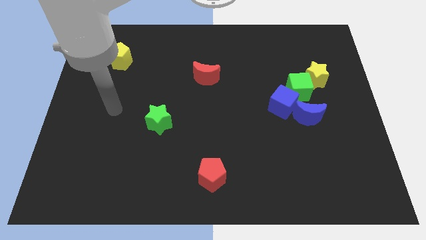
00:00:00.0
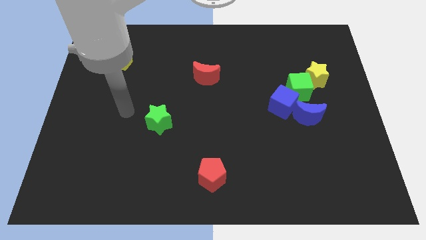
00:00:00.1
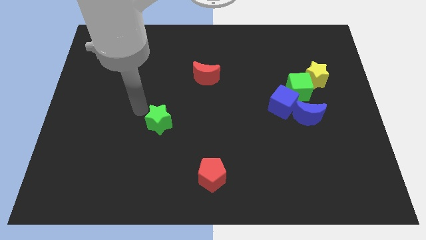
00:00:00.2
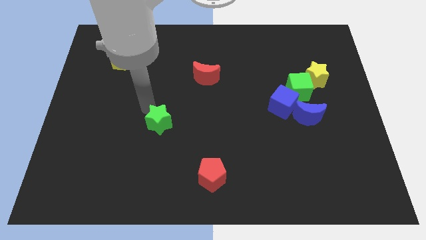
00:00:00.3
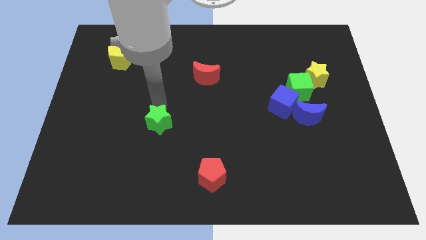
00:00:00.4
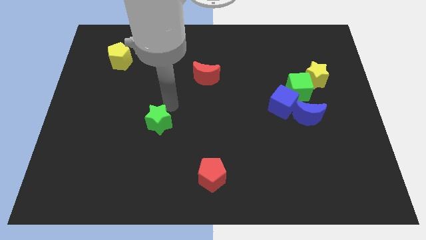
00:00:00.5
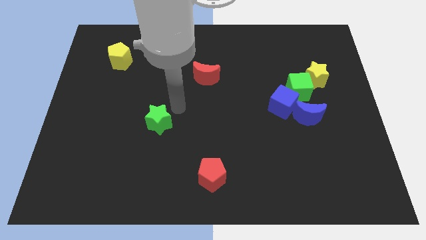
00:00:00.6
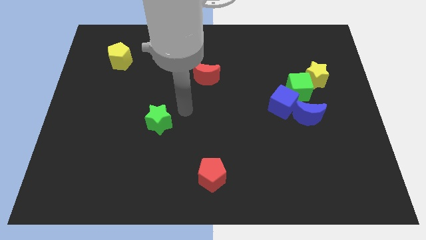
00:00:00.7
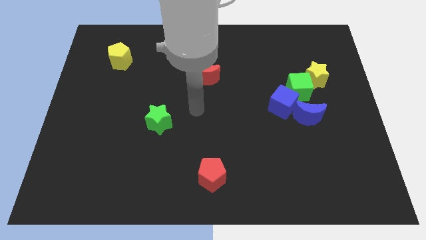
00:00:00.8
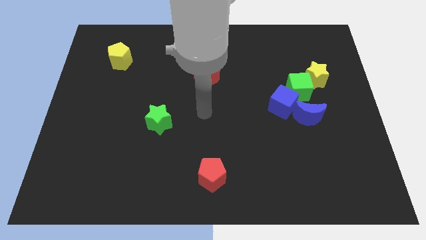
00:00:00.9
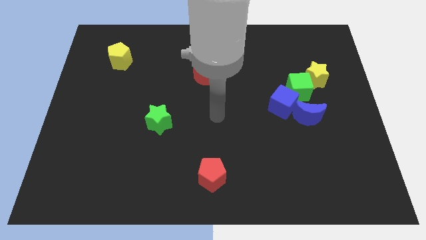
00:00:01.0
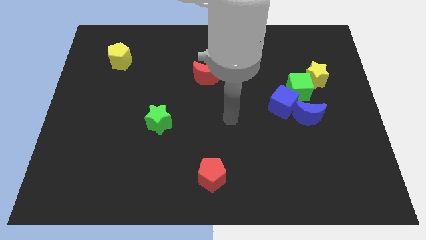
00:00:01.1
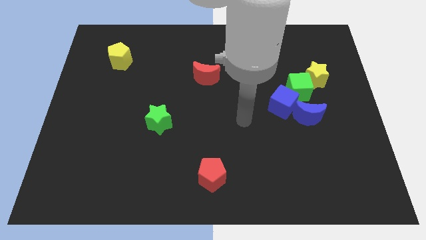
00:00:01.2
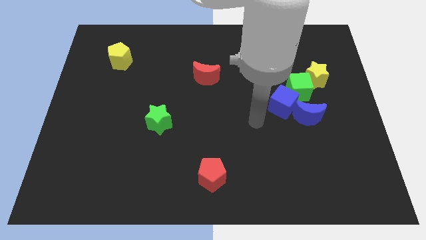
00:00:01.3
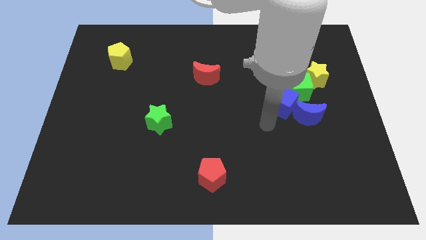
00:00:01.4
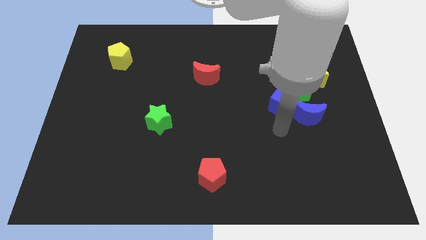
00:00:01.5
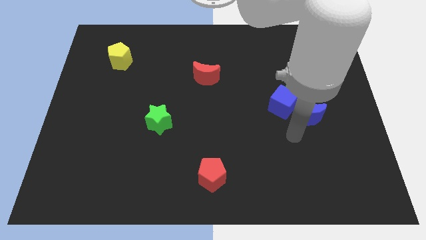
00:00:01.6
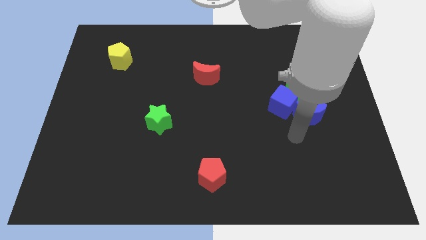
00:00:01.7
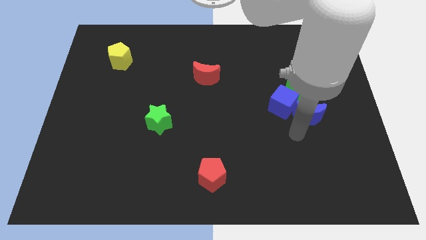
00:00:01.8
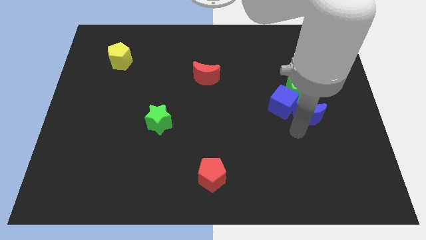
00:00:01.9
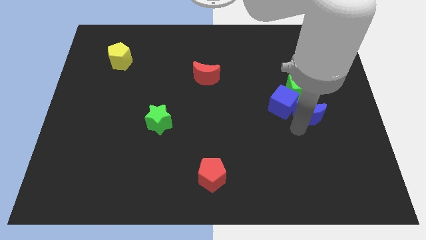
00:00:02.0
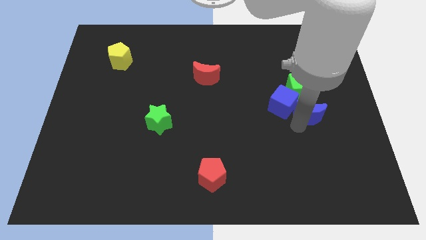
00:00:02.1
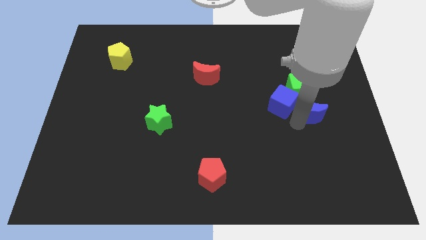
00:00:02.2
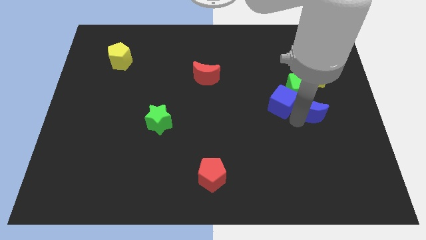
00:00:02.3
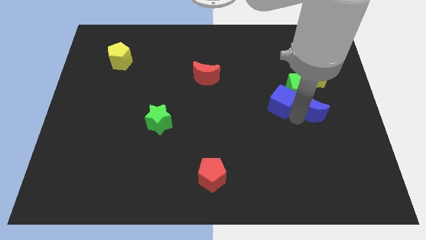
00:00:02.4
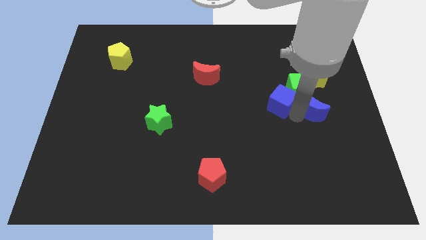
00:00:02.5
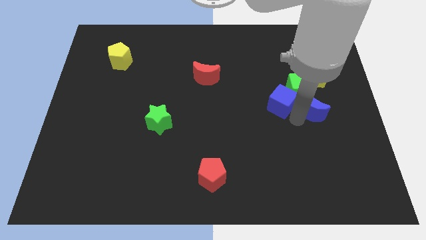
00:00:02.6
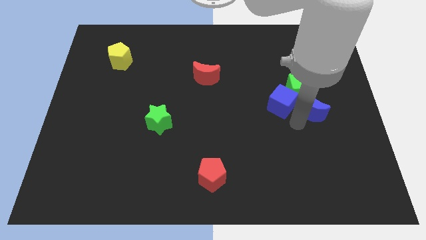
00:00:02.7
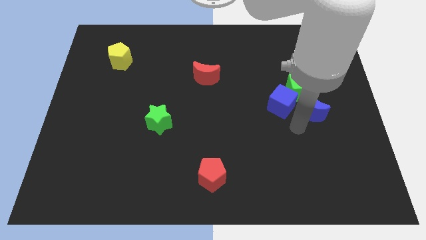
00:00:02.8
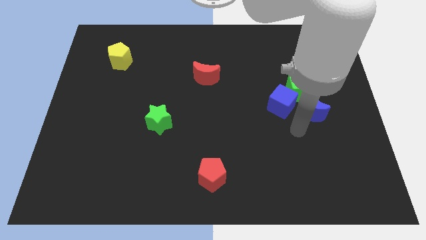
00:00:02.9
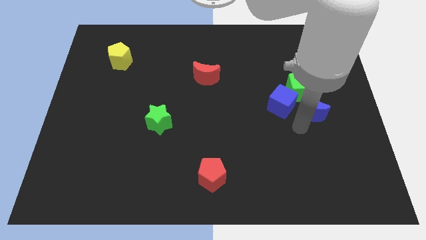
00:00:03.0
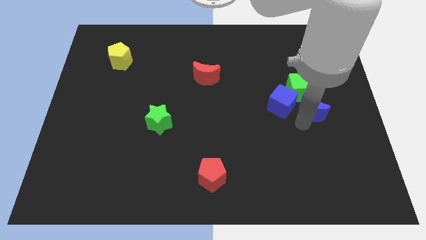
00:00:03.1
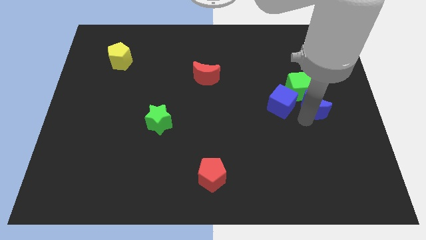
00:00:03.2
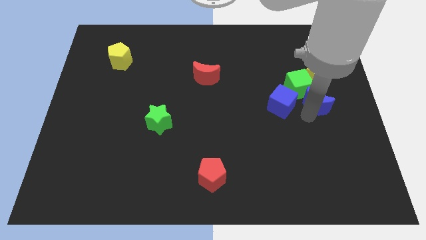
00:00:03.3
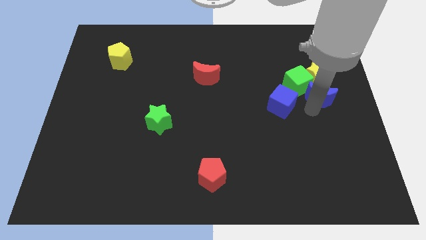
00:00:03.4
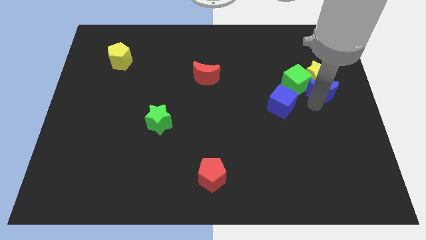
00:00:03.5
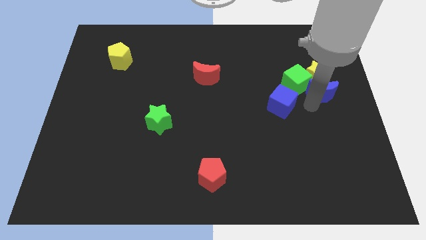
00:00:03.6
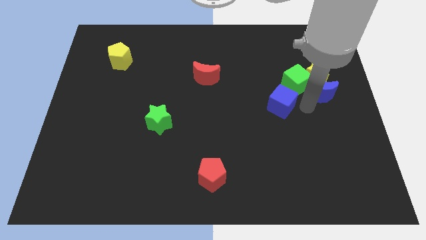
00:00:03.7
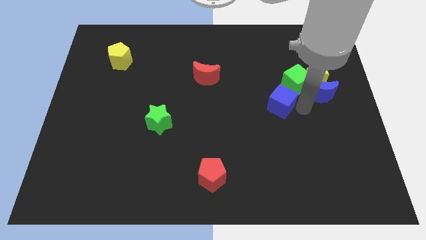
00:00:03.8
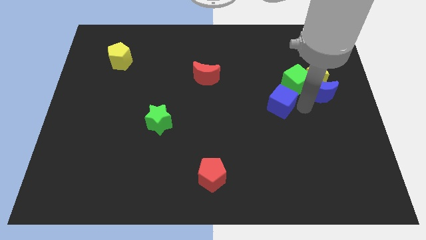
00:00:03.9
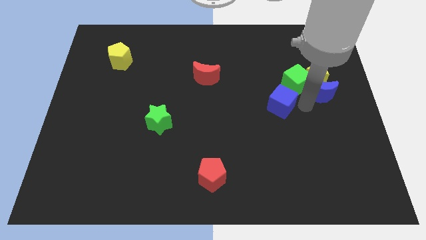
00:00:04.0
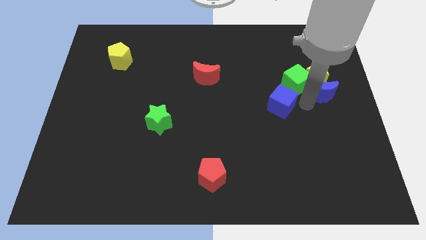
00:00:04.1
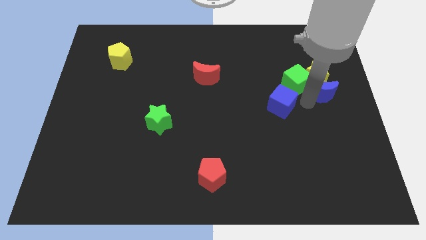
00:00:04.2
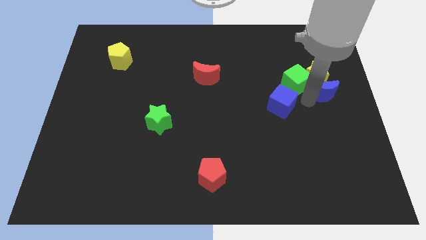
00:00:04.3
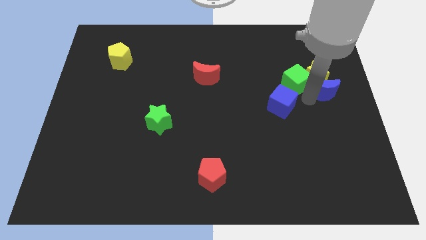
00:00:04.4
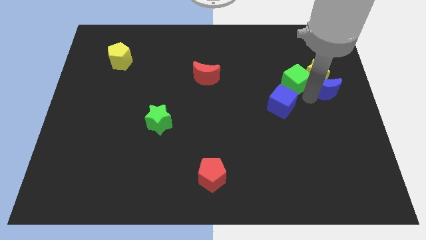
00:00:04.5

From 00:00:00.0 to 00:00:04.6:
move the blue moon upwards somewhat

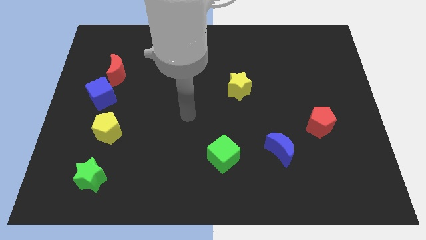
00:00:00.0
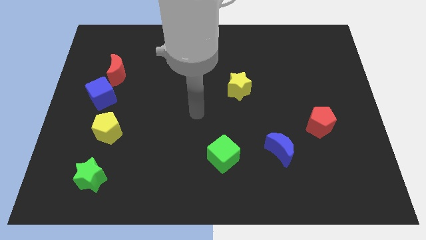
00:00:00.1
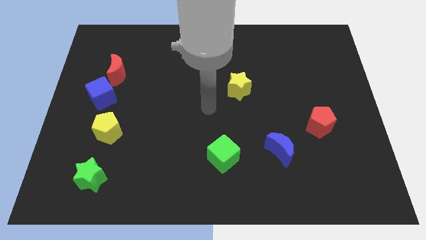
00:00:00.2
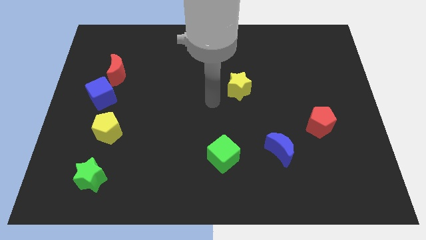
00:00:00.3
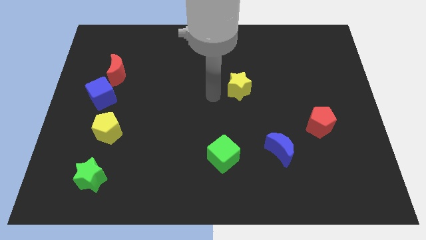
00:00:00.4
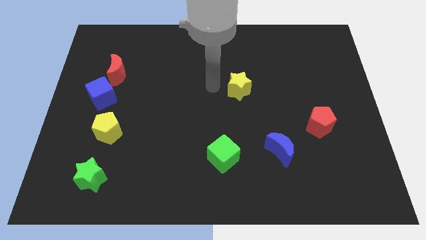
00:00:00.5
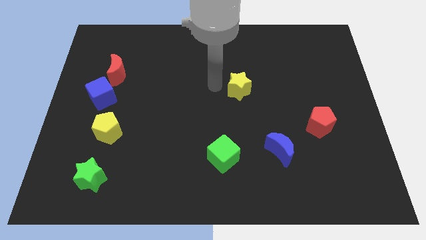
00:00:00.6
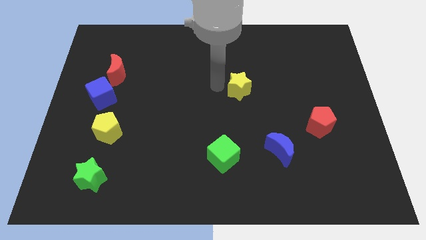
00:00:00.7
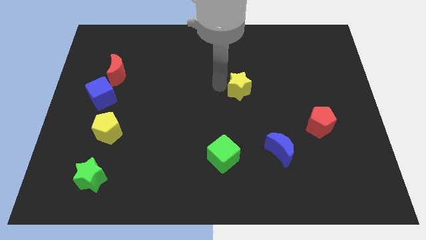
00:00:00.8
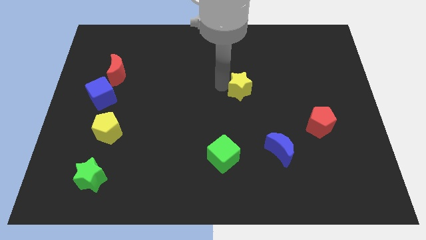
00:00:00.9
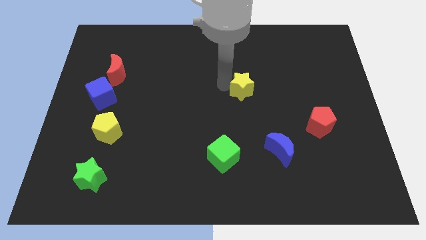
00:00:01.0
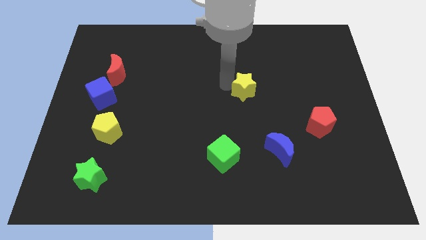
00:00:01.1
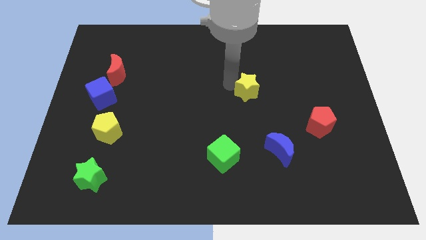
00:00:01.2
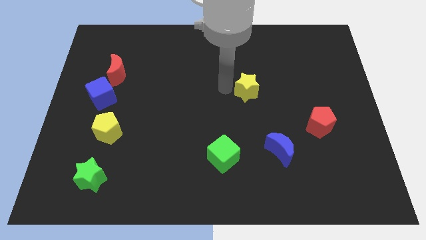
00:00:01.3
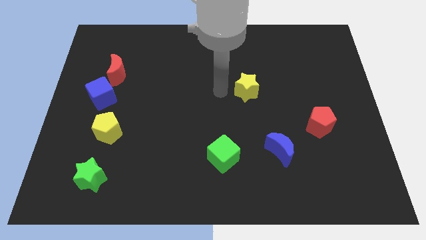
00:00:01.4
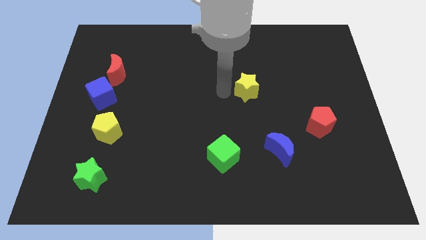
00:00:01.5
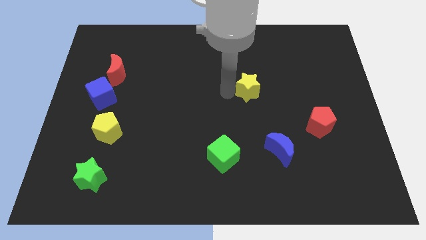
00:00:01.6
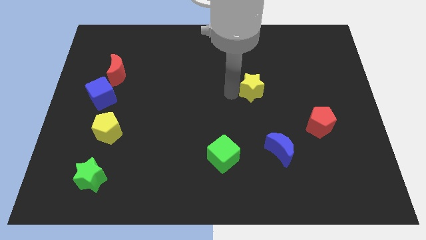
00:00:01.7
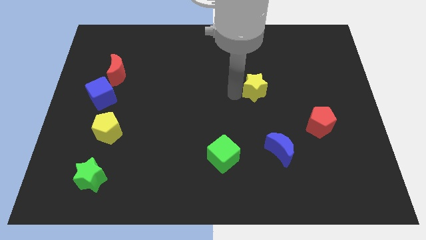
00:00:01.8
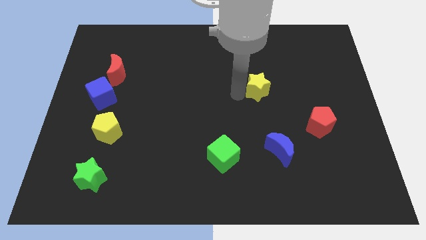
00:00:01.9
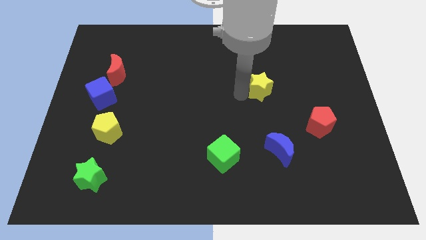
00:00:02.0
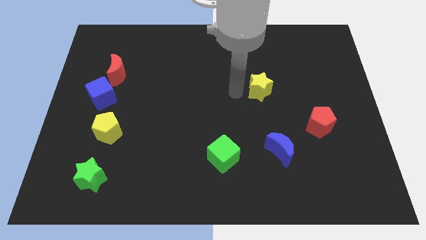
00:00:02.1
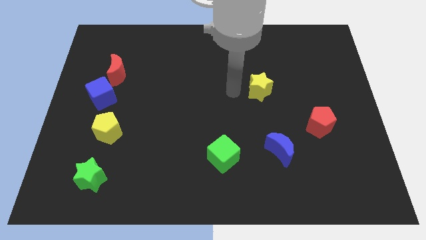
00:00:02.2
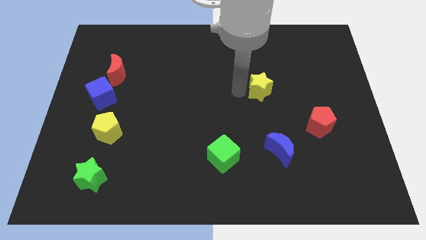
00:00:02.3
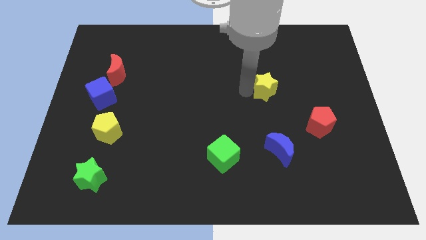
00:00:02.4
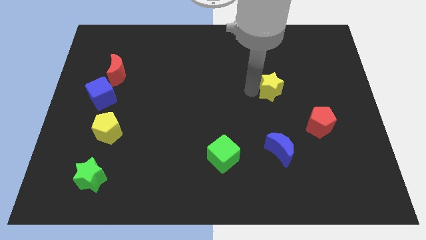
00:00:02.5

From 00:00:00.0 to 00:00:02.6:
move the yellow star a bit right

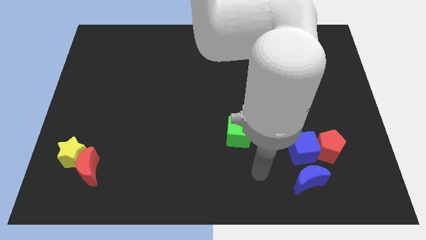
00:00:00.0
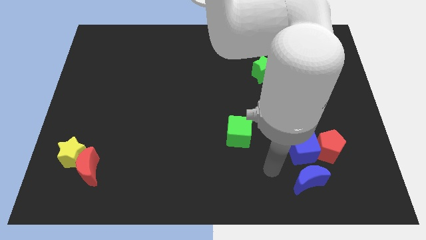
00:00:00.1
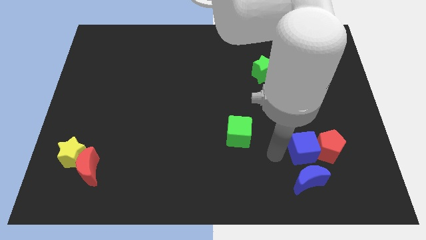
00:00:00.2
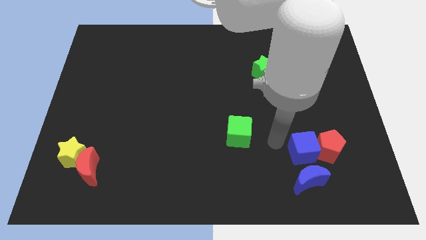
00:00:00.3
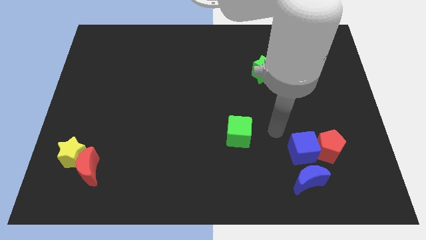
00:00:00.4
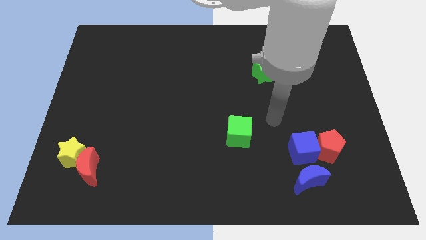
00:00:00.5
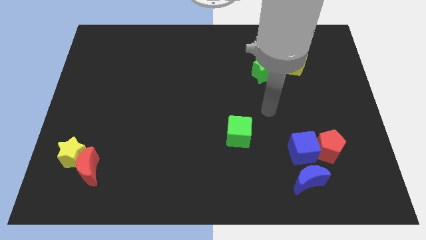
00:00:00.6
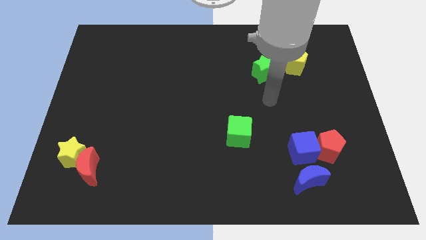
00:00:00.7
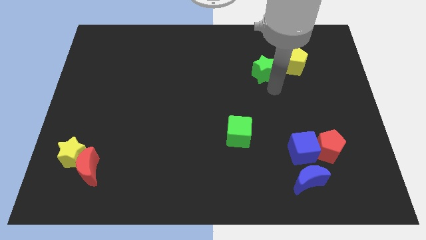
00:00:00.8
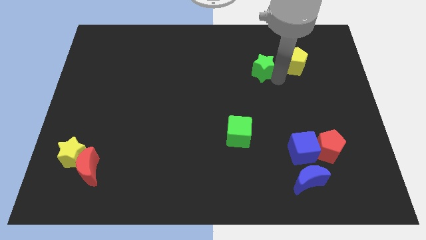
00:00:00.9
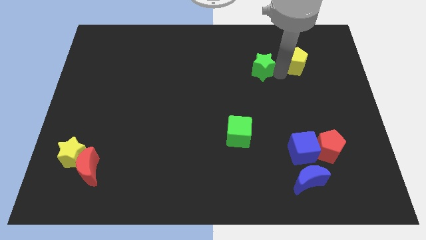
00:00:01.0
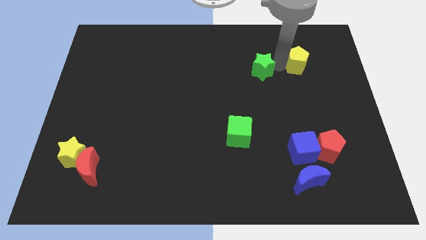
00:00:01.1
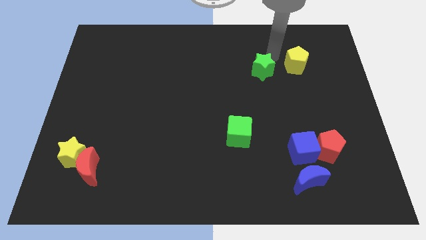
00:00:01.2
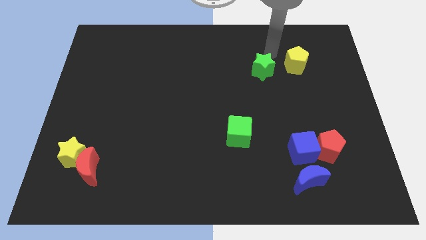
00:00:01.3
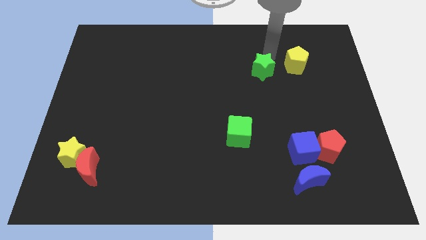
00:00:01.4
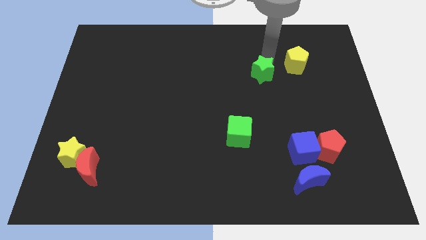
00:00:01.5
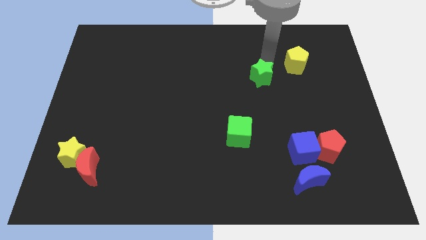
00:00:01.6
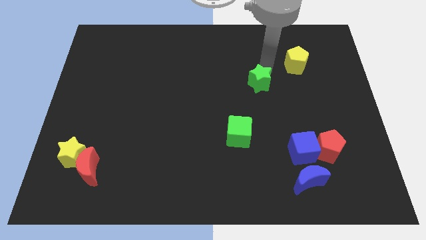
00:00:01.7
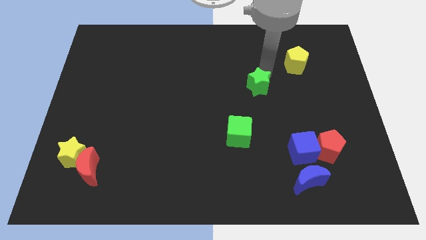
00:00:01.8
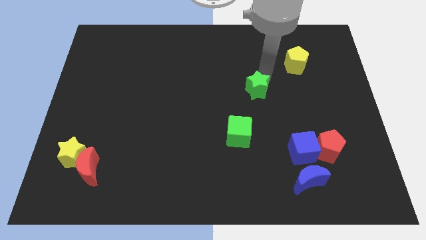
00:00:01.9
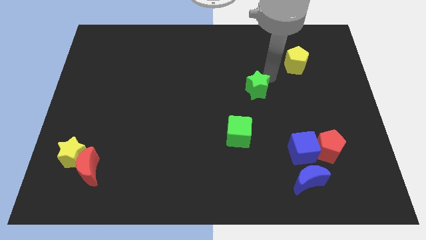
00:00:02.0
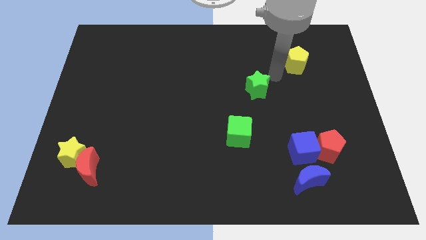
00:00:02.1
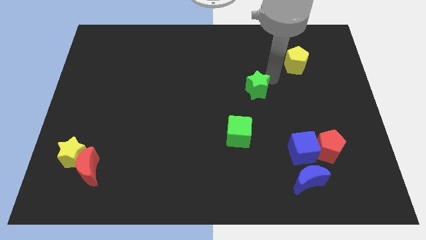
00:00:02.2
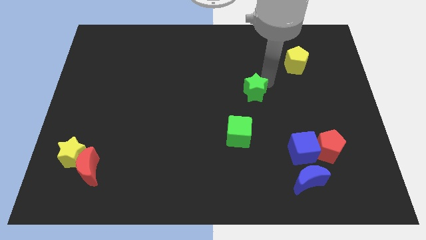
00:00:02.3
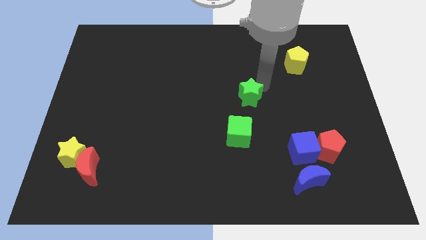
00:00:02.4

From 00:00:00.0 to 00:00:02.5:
move the green star downwards and left slightly
